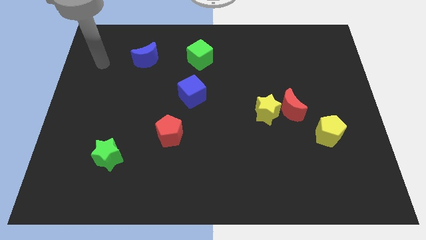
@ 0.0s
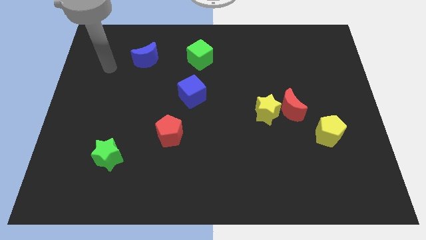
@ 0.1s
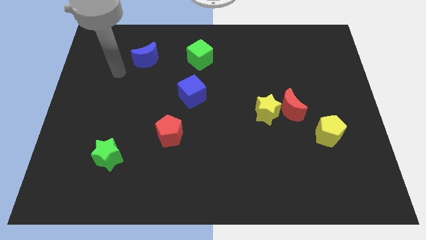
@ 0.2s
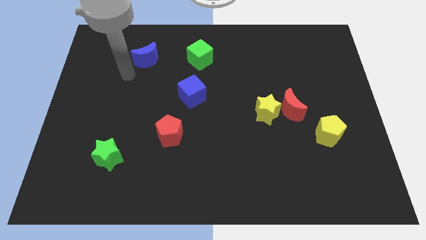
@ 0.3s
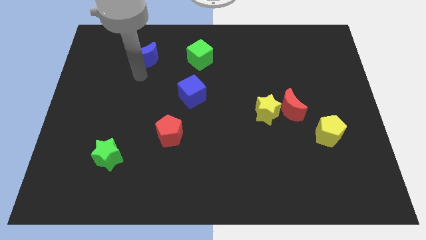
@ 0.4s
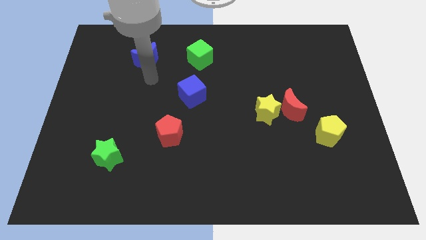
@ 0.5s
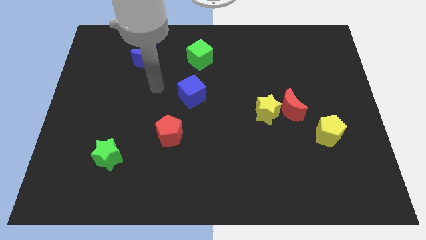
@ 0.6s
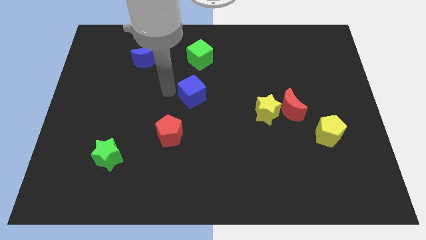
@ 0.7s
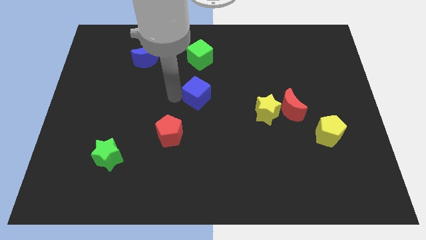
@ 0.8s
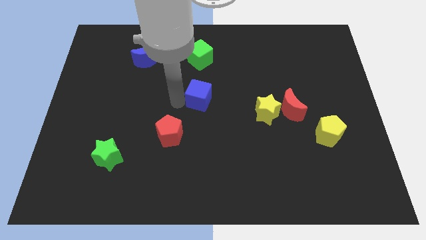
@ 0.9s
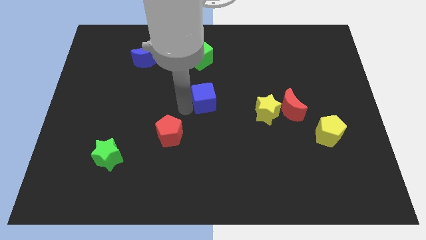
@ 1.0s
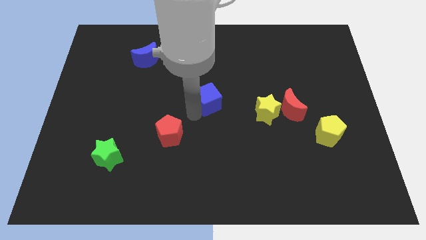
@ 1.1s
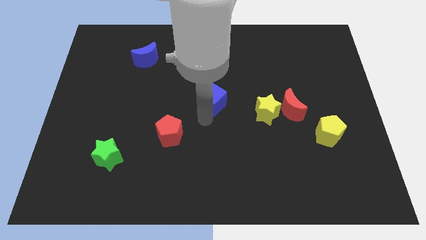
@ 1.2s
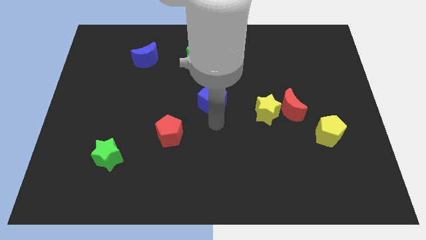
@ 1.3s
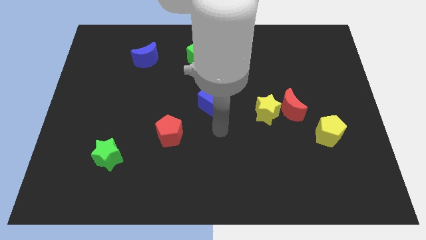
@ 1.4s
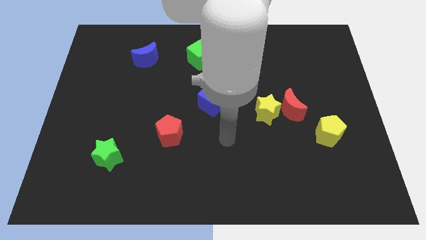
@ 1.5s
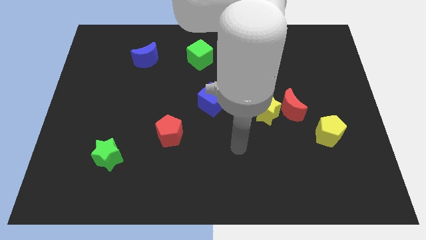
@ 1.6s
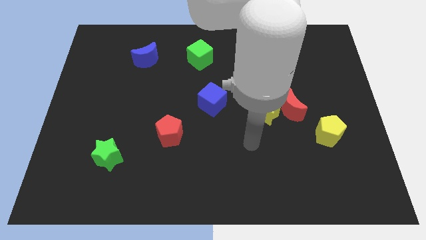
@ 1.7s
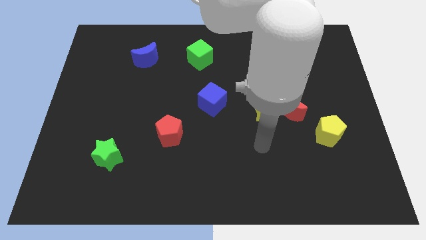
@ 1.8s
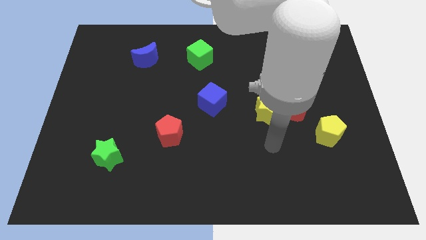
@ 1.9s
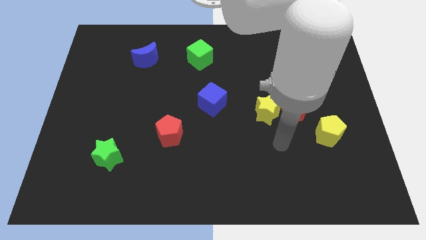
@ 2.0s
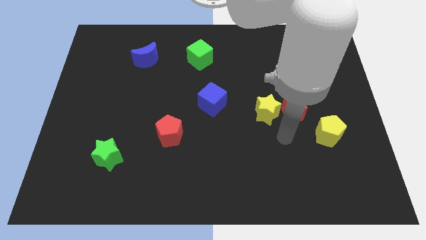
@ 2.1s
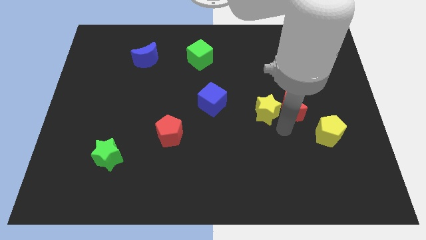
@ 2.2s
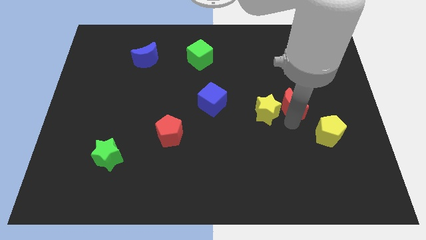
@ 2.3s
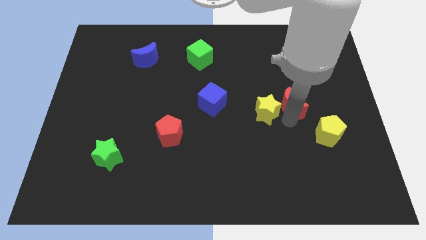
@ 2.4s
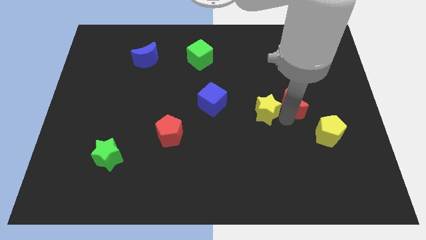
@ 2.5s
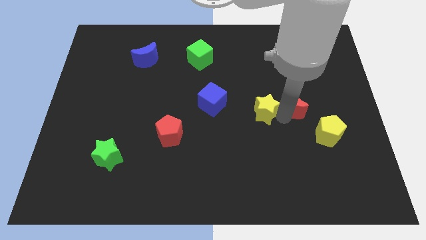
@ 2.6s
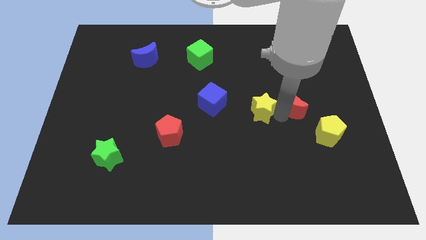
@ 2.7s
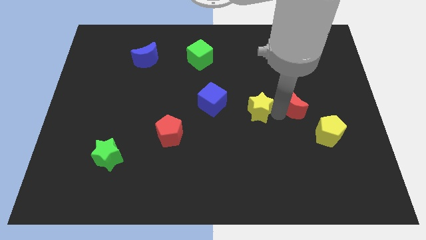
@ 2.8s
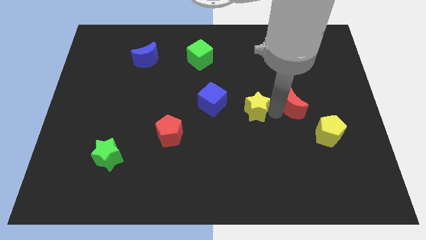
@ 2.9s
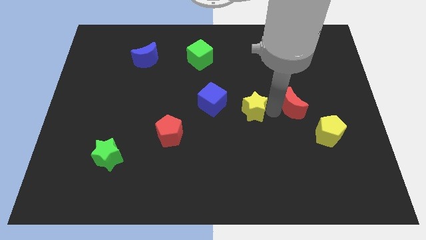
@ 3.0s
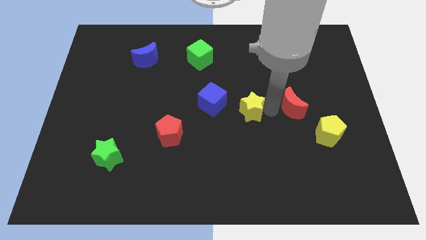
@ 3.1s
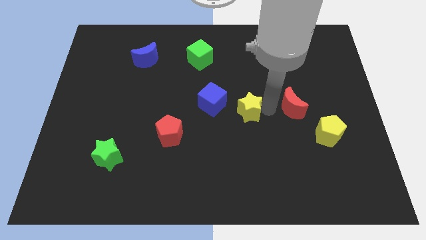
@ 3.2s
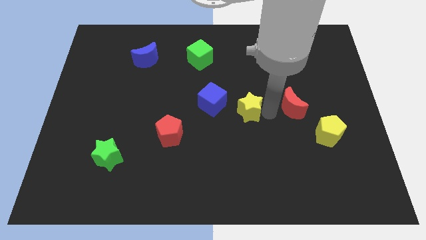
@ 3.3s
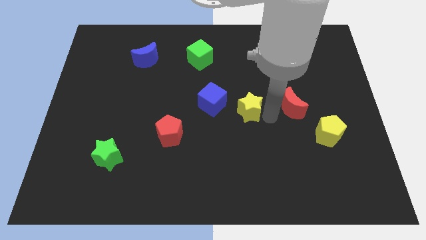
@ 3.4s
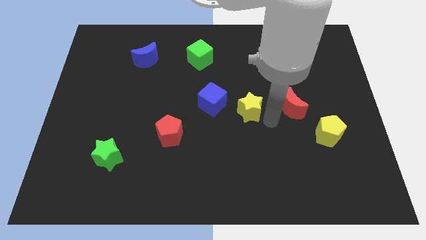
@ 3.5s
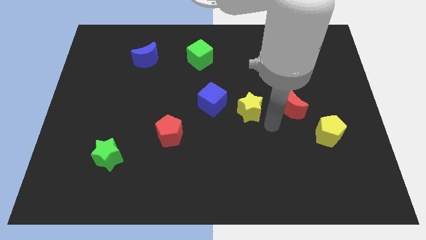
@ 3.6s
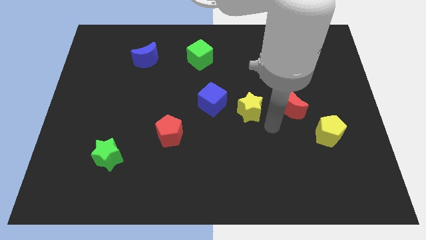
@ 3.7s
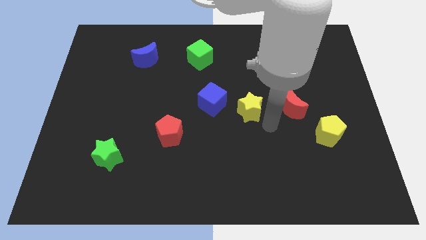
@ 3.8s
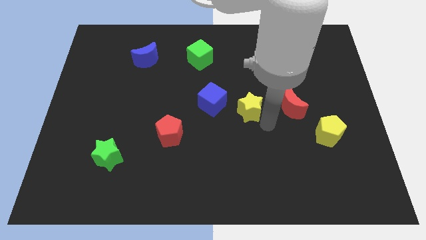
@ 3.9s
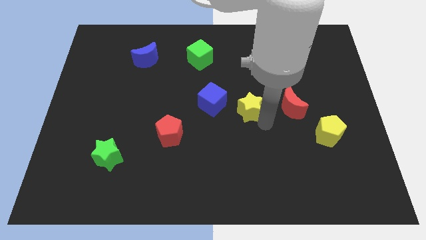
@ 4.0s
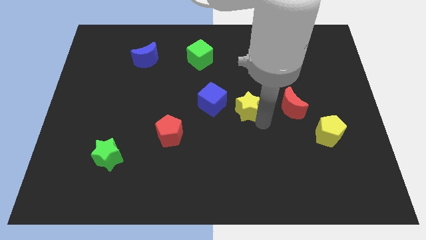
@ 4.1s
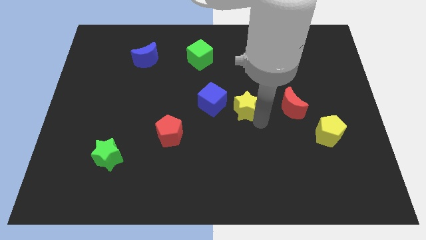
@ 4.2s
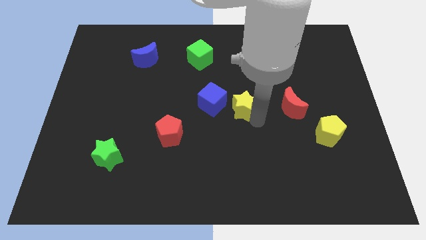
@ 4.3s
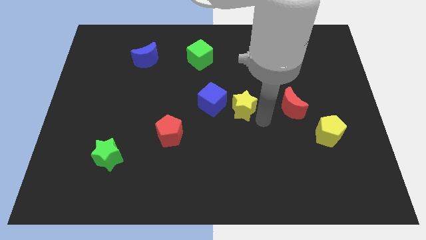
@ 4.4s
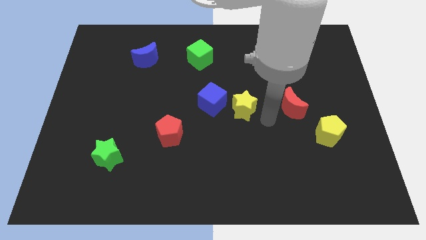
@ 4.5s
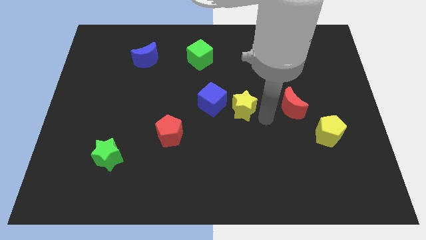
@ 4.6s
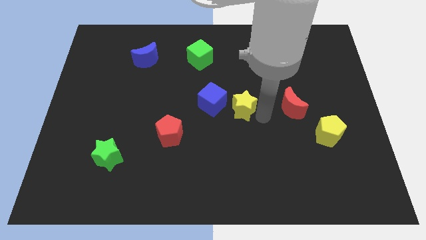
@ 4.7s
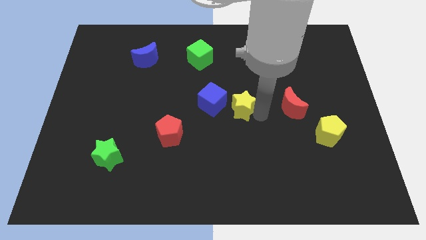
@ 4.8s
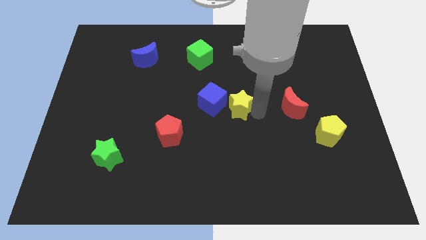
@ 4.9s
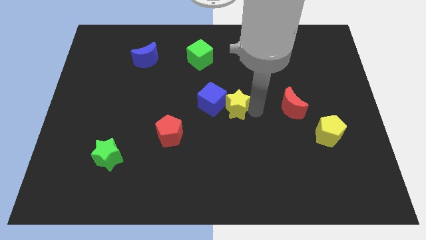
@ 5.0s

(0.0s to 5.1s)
push the yellow star next to the blue cube

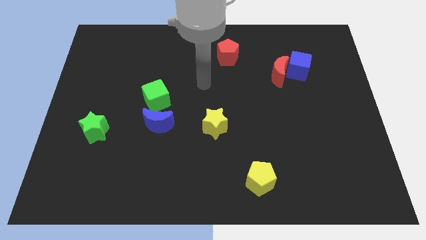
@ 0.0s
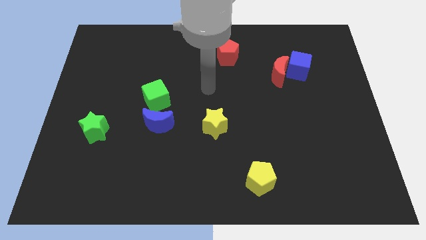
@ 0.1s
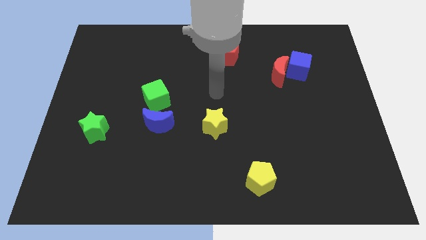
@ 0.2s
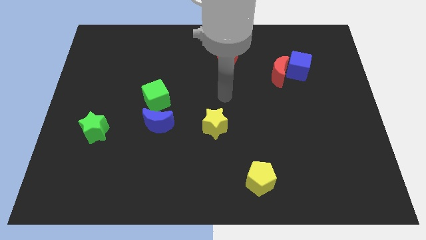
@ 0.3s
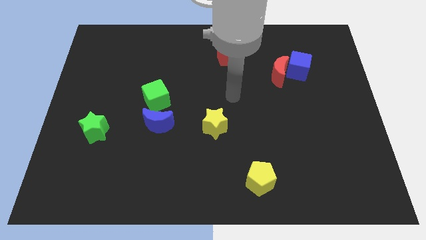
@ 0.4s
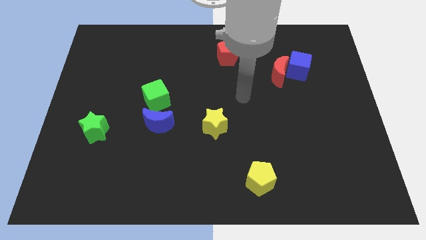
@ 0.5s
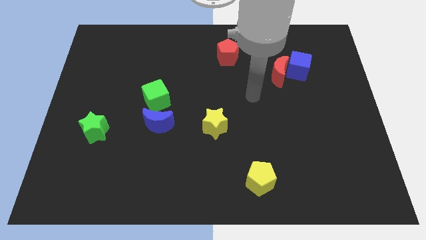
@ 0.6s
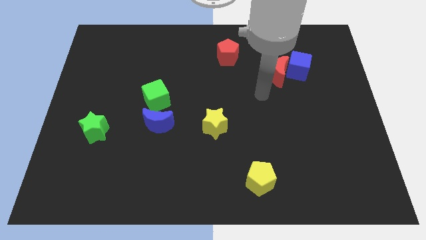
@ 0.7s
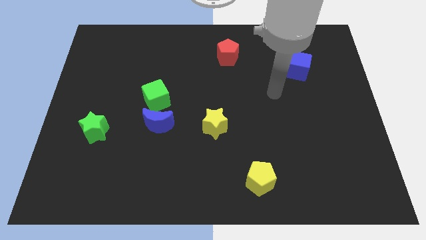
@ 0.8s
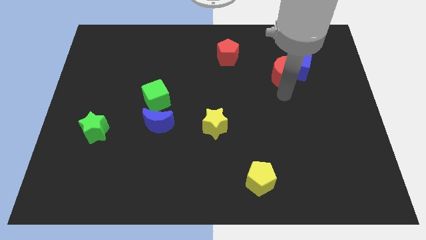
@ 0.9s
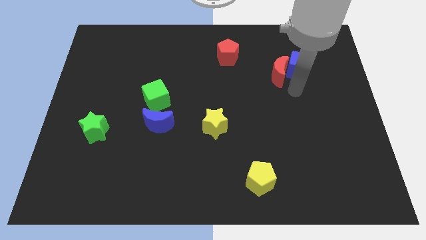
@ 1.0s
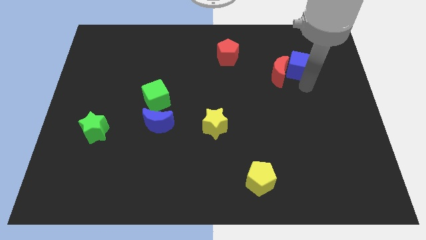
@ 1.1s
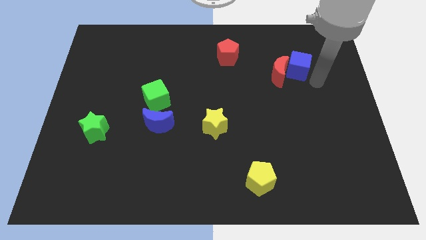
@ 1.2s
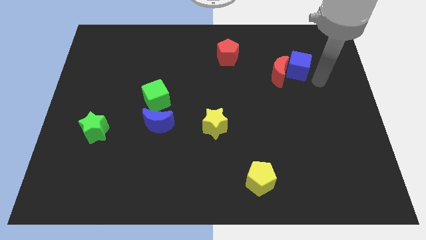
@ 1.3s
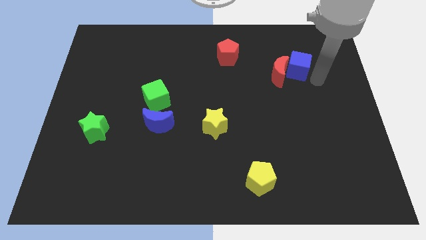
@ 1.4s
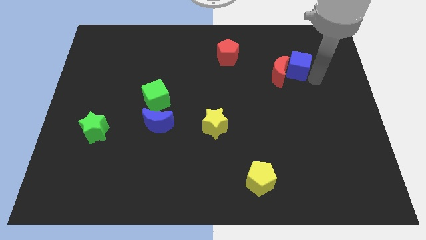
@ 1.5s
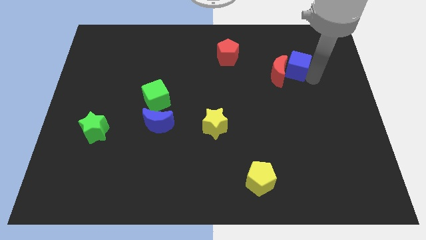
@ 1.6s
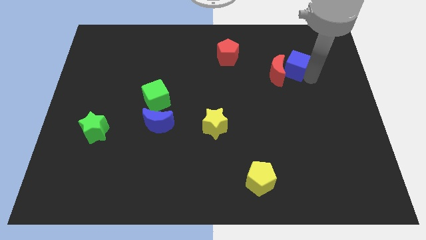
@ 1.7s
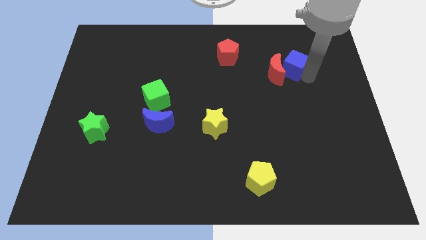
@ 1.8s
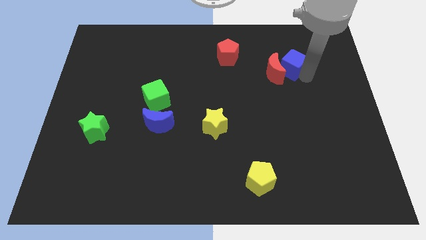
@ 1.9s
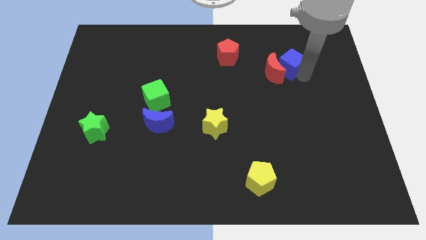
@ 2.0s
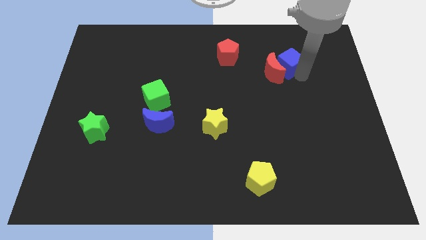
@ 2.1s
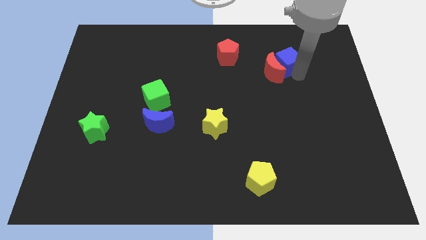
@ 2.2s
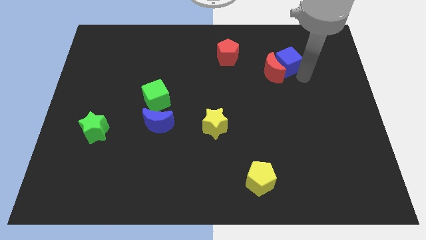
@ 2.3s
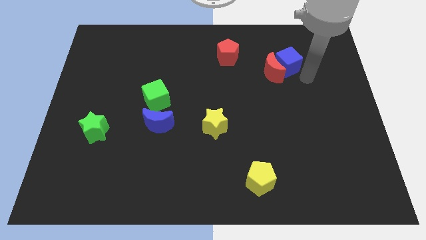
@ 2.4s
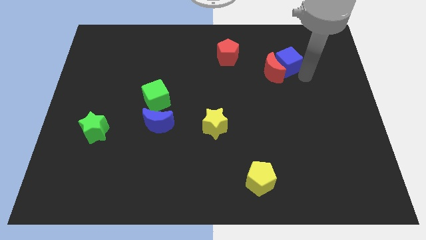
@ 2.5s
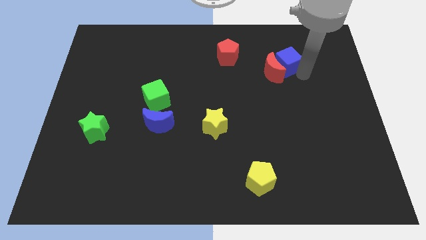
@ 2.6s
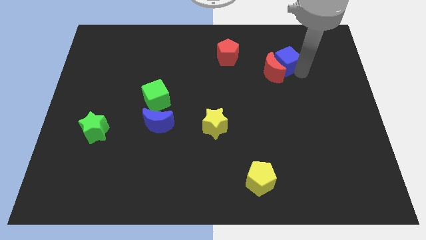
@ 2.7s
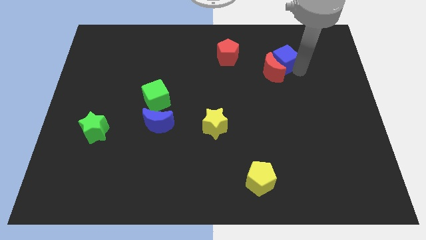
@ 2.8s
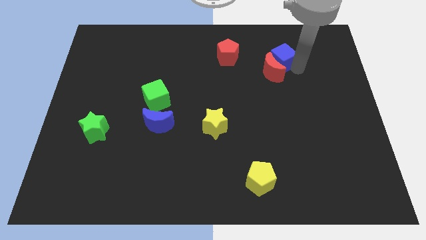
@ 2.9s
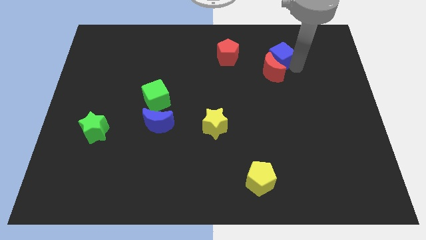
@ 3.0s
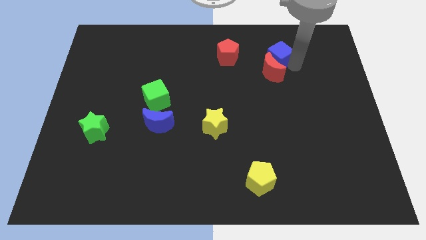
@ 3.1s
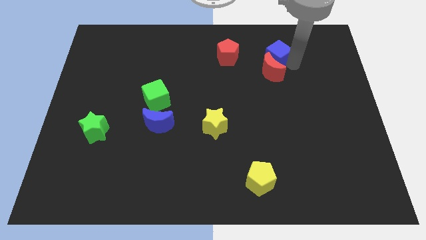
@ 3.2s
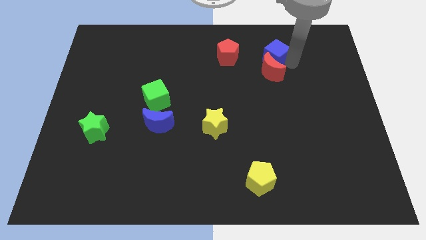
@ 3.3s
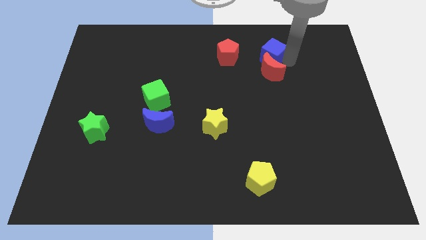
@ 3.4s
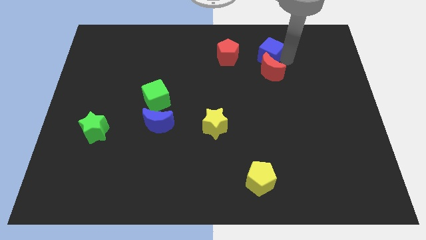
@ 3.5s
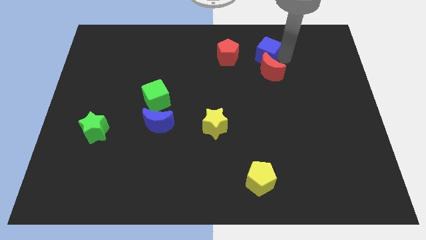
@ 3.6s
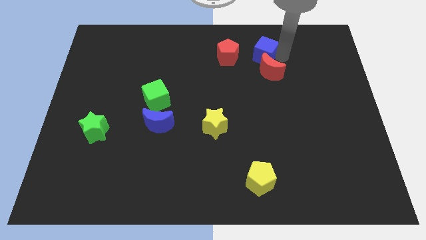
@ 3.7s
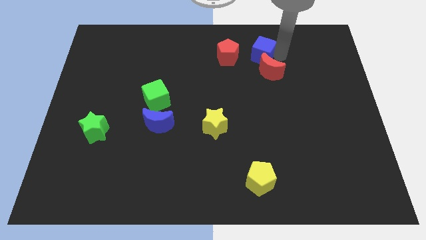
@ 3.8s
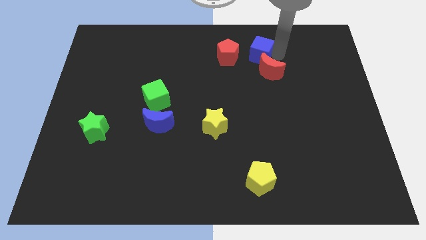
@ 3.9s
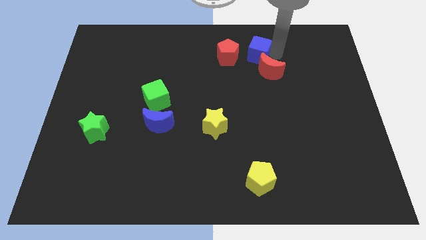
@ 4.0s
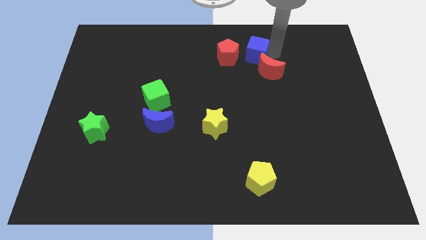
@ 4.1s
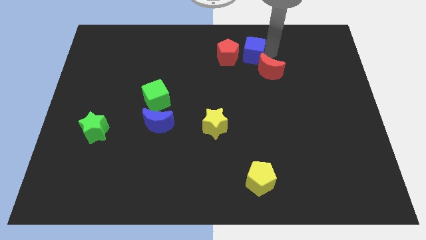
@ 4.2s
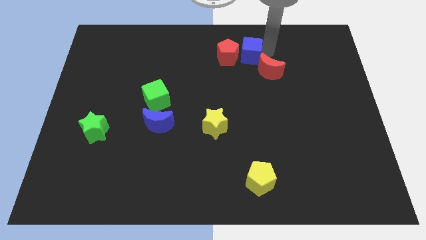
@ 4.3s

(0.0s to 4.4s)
put the blue cube to the red pentagon
